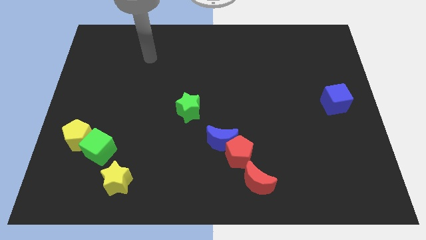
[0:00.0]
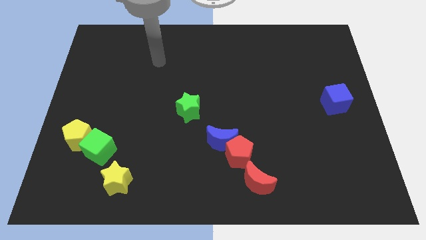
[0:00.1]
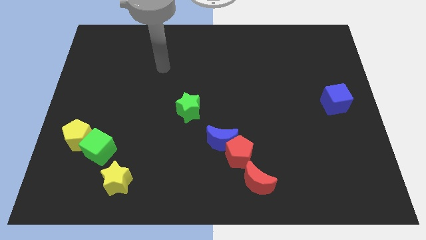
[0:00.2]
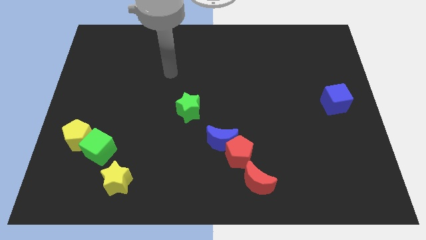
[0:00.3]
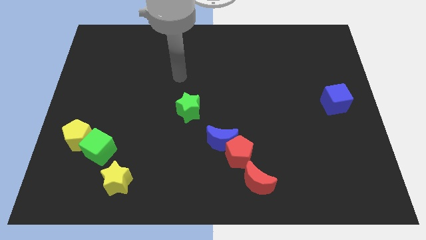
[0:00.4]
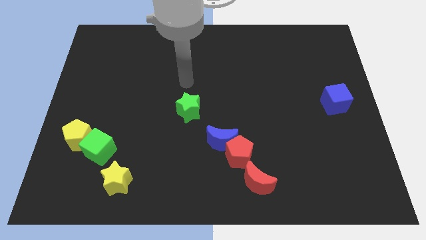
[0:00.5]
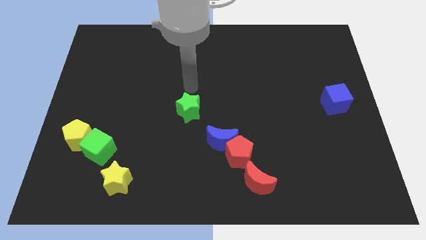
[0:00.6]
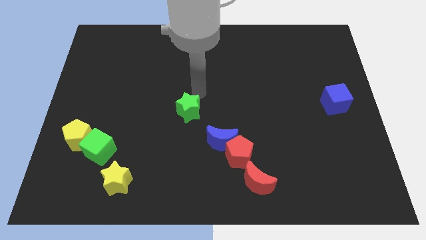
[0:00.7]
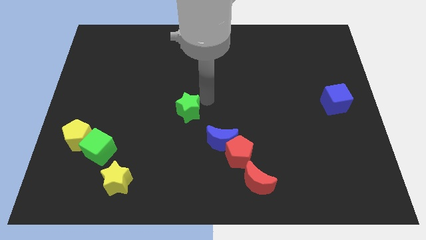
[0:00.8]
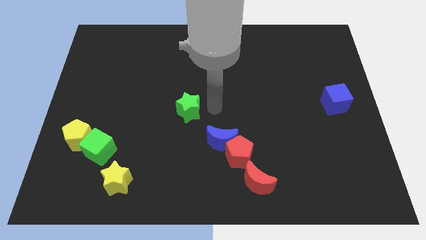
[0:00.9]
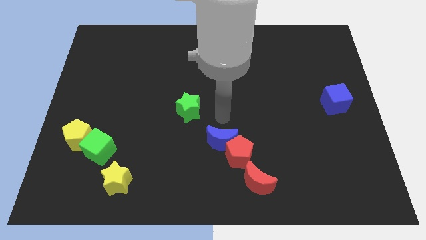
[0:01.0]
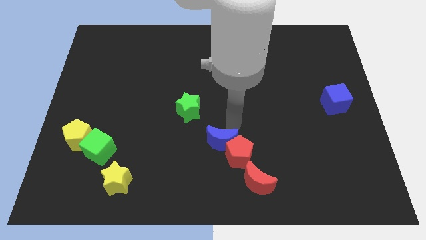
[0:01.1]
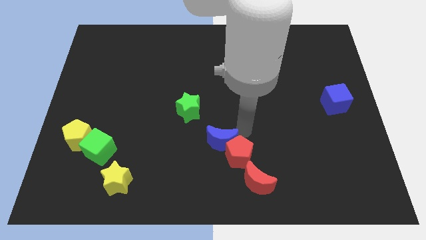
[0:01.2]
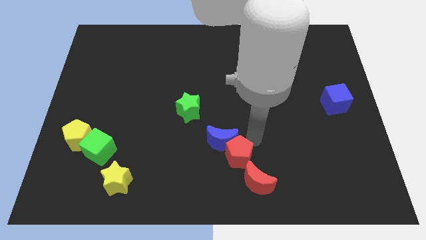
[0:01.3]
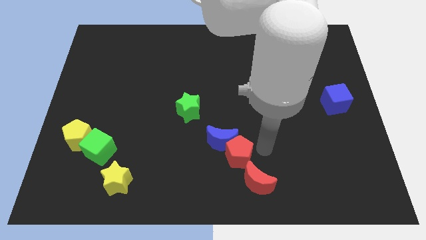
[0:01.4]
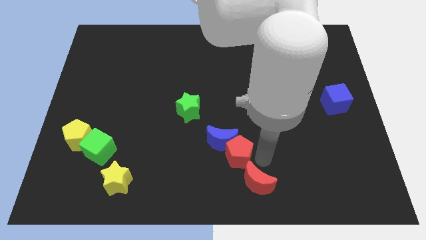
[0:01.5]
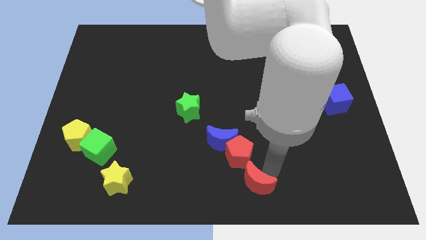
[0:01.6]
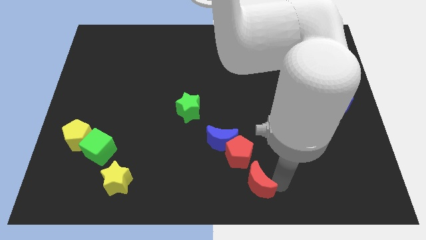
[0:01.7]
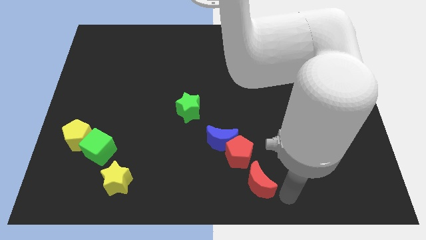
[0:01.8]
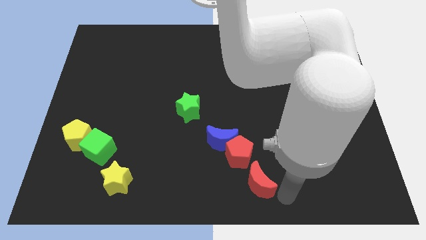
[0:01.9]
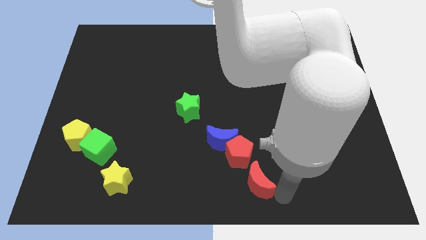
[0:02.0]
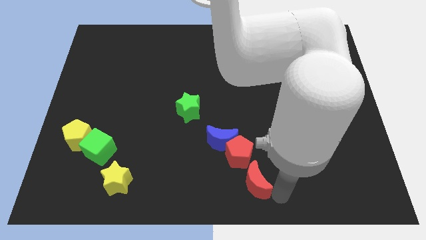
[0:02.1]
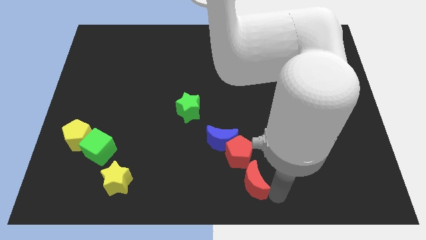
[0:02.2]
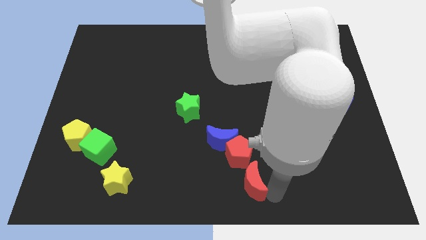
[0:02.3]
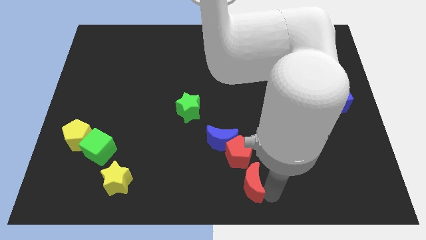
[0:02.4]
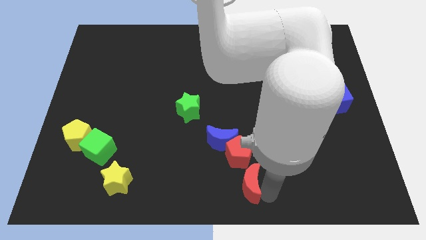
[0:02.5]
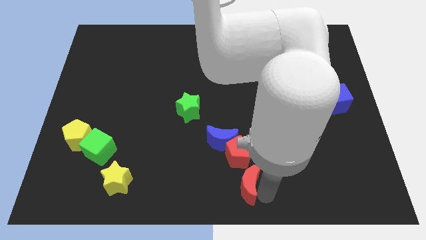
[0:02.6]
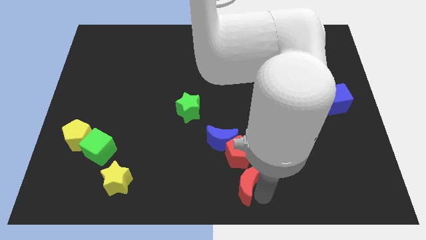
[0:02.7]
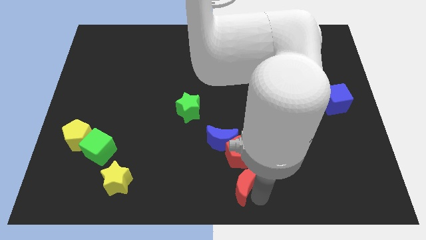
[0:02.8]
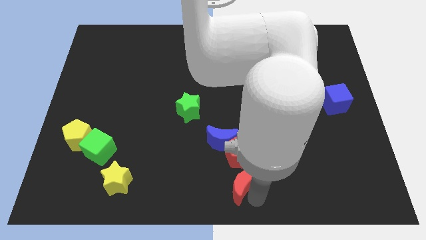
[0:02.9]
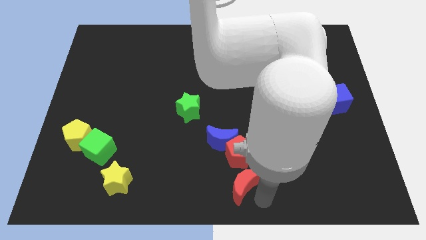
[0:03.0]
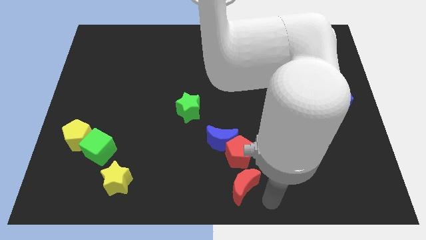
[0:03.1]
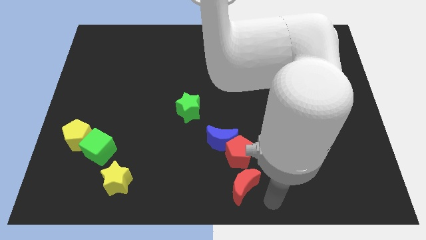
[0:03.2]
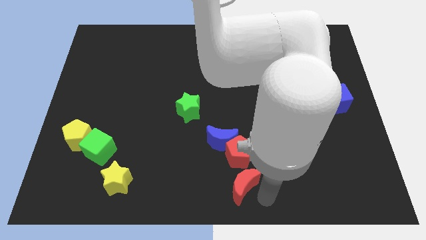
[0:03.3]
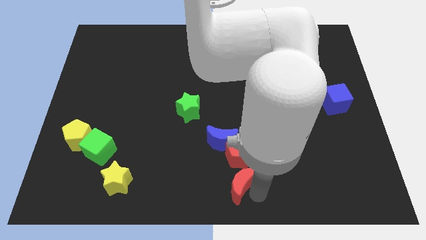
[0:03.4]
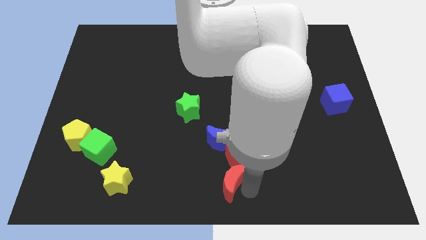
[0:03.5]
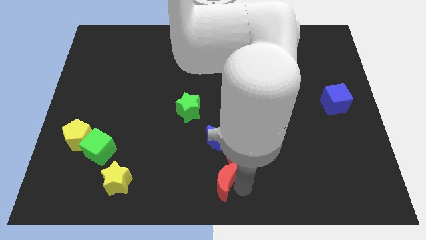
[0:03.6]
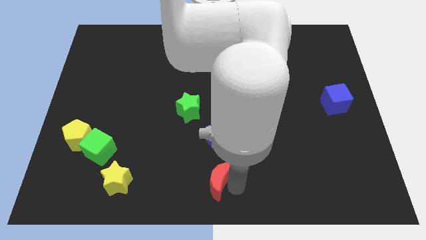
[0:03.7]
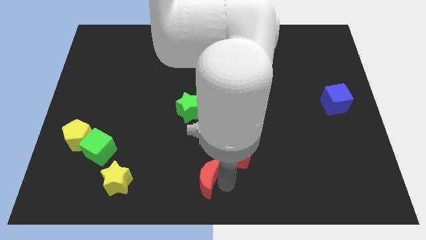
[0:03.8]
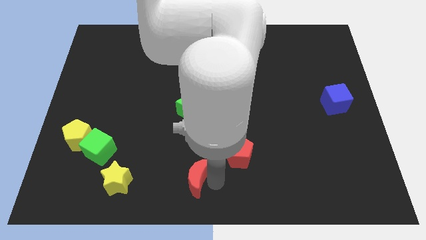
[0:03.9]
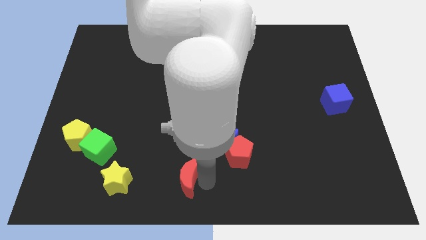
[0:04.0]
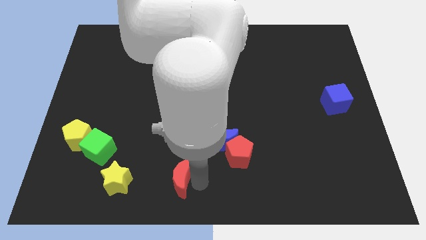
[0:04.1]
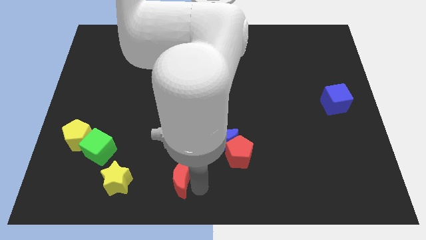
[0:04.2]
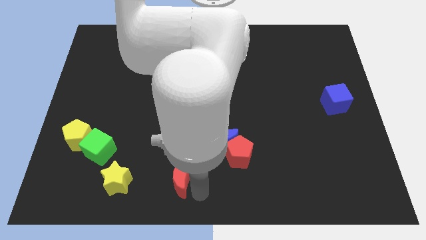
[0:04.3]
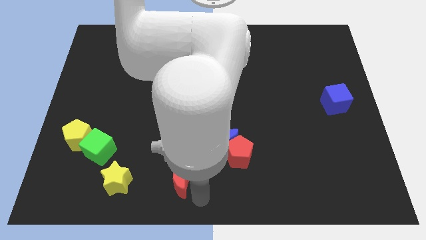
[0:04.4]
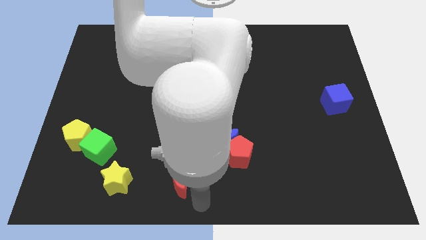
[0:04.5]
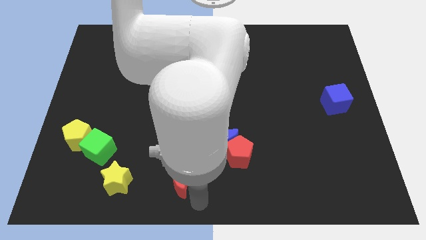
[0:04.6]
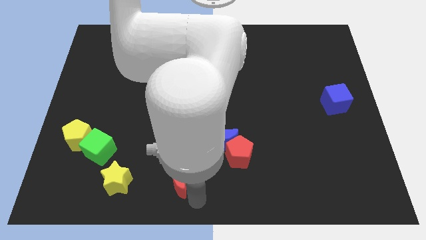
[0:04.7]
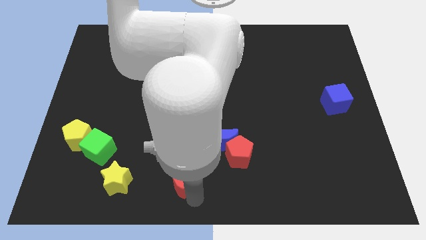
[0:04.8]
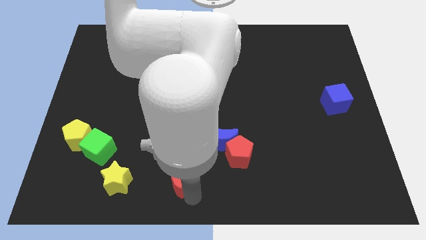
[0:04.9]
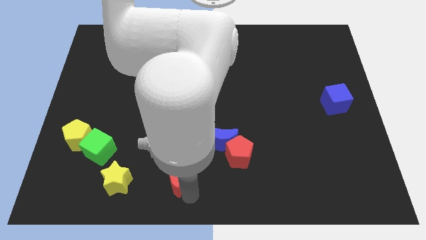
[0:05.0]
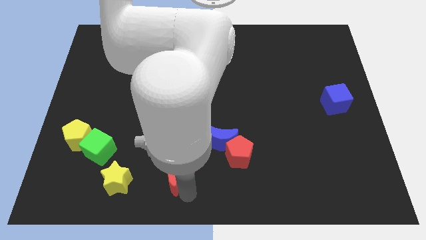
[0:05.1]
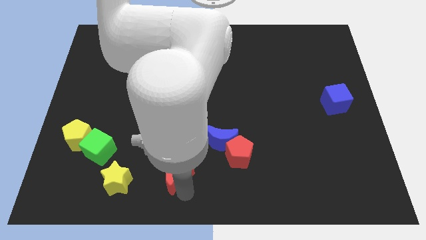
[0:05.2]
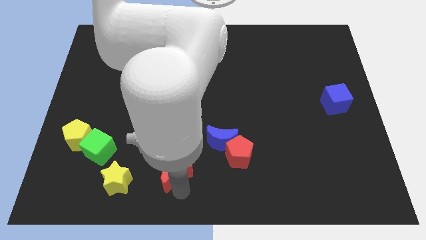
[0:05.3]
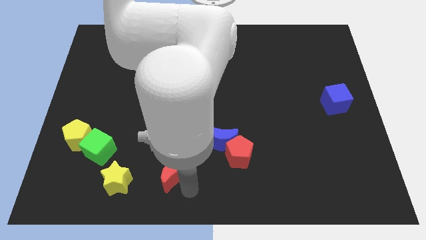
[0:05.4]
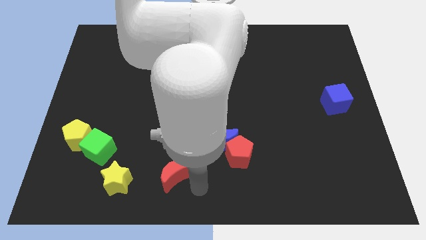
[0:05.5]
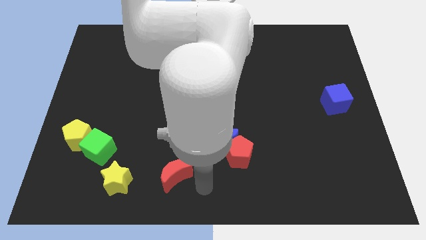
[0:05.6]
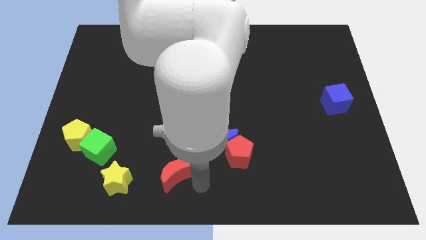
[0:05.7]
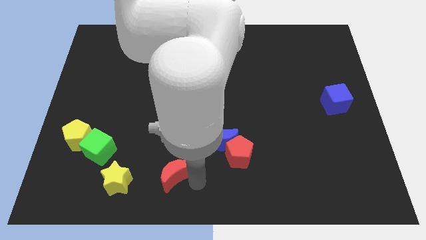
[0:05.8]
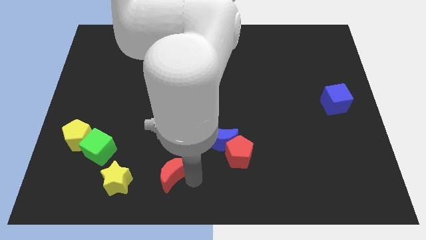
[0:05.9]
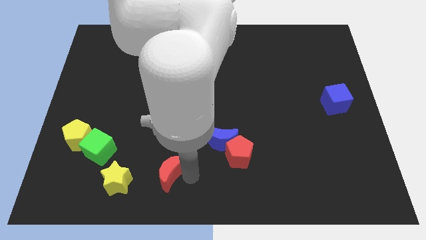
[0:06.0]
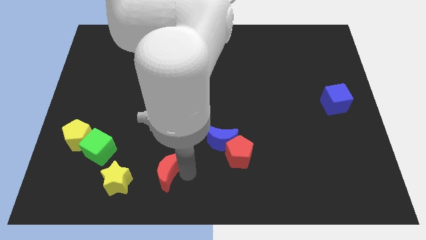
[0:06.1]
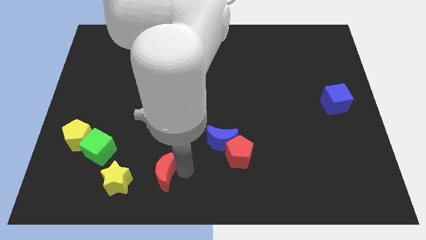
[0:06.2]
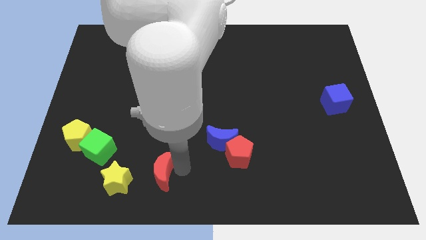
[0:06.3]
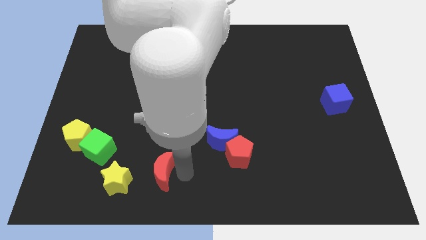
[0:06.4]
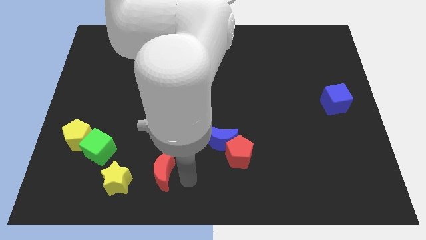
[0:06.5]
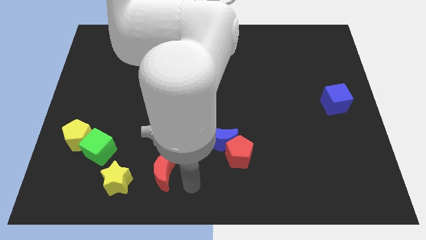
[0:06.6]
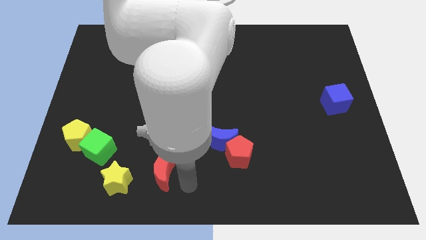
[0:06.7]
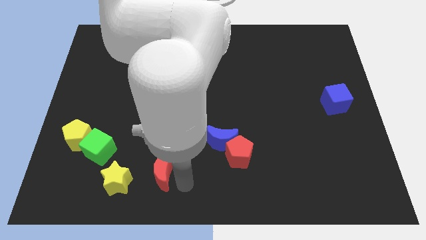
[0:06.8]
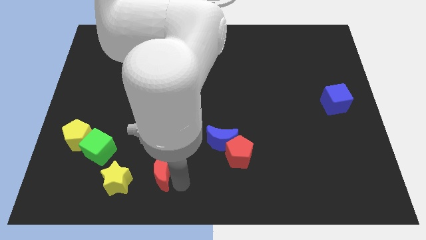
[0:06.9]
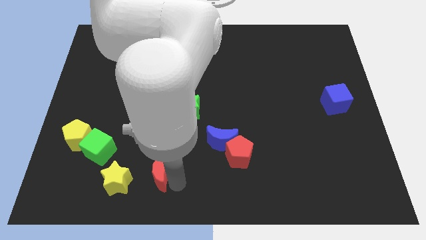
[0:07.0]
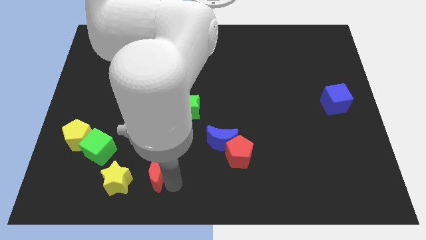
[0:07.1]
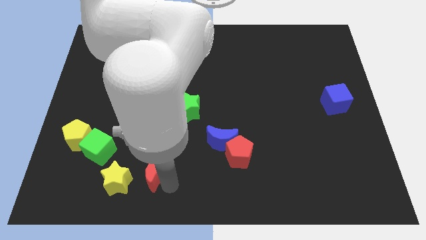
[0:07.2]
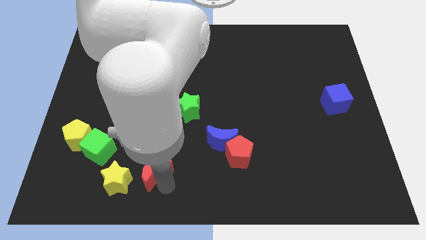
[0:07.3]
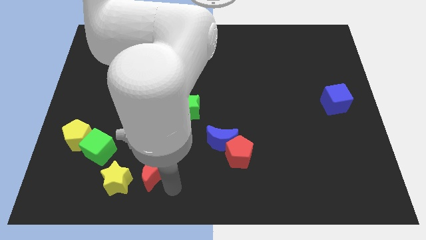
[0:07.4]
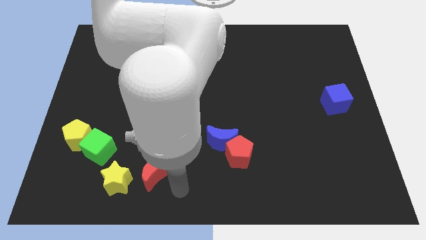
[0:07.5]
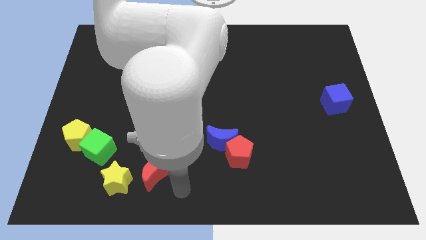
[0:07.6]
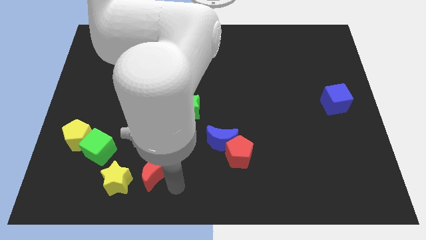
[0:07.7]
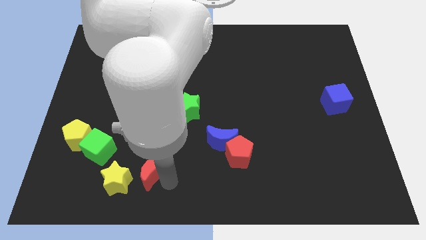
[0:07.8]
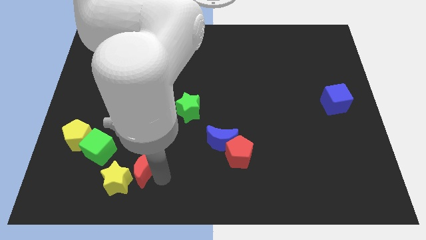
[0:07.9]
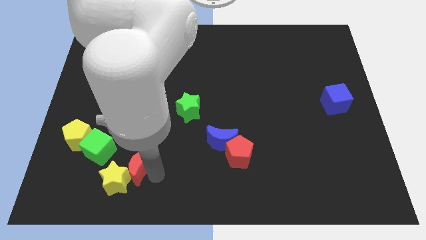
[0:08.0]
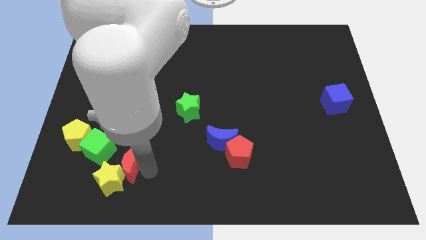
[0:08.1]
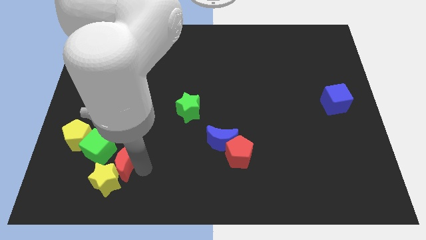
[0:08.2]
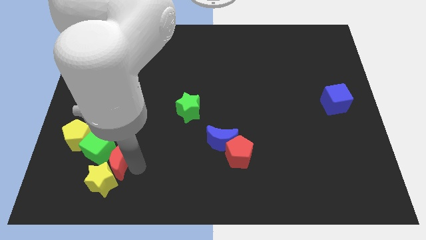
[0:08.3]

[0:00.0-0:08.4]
push the red moon close to the green cube
